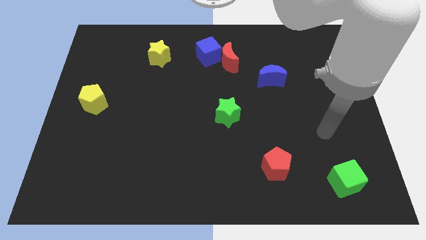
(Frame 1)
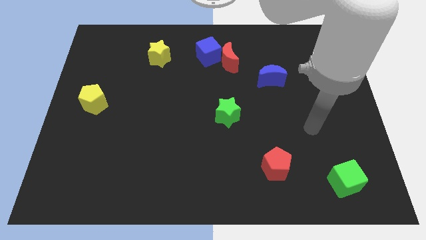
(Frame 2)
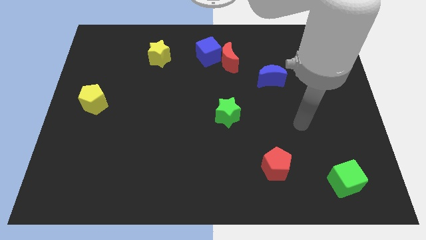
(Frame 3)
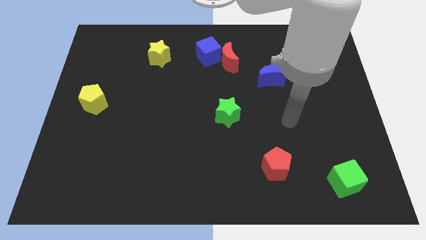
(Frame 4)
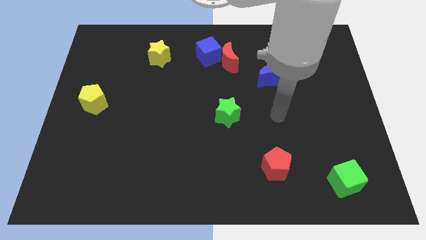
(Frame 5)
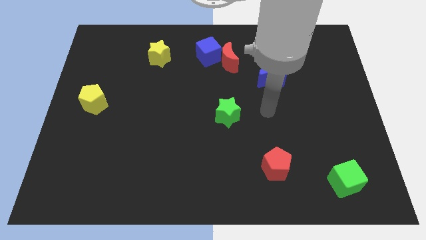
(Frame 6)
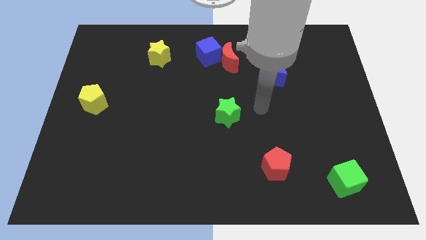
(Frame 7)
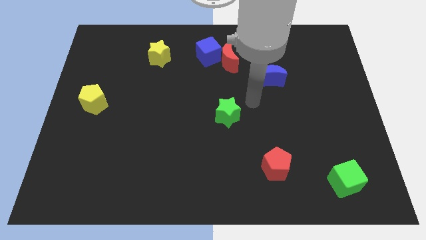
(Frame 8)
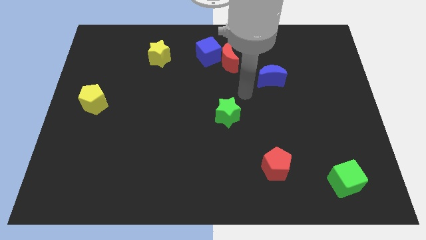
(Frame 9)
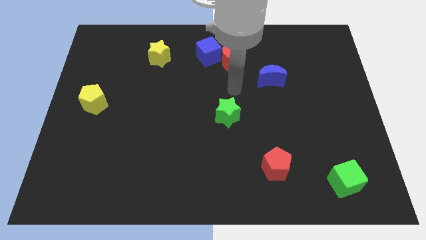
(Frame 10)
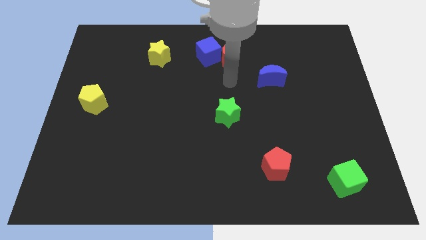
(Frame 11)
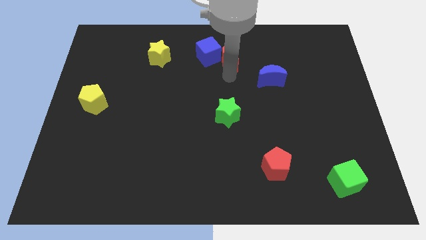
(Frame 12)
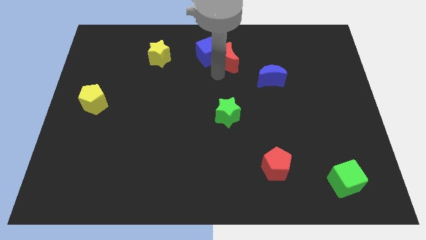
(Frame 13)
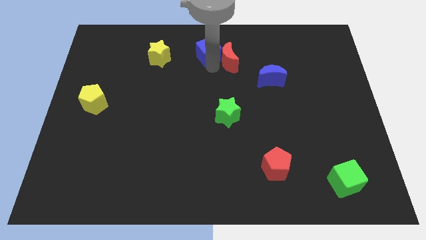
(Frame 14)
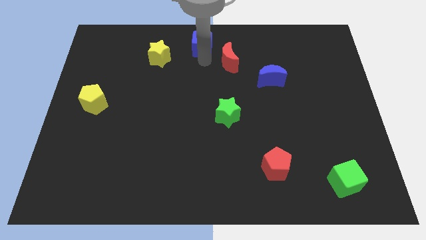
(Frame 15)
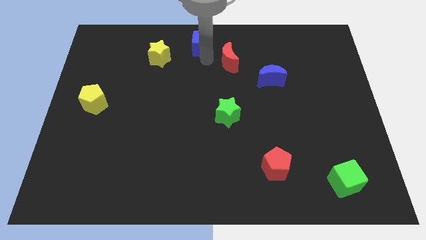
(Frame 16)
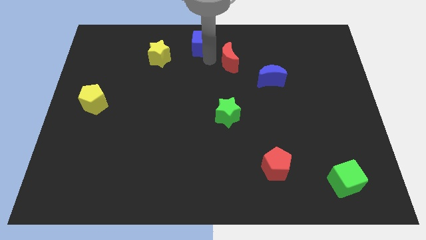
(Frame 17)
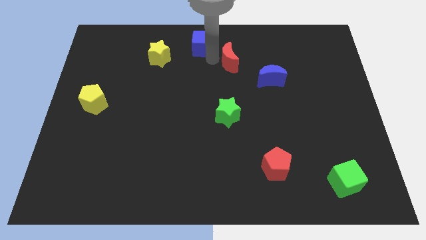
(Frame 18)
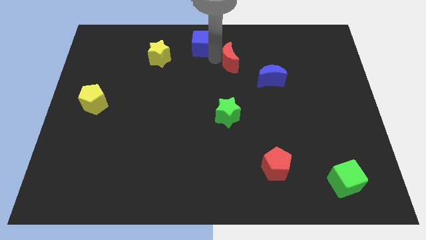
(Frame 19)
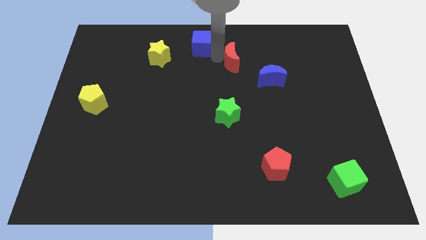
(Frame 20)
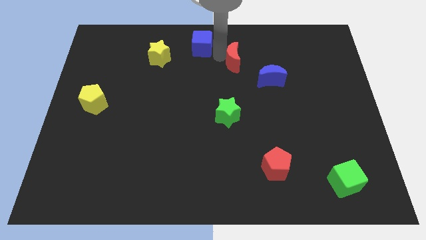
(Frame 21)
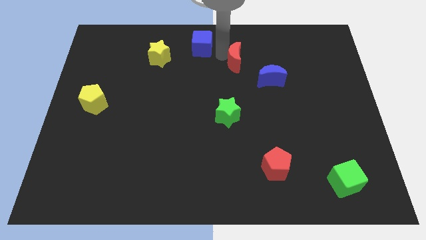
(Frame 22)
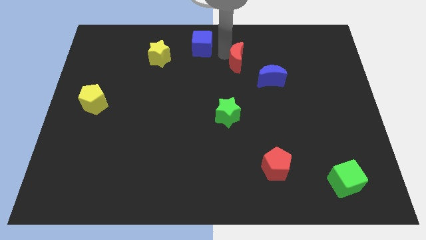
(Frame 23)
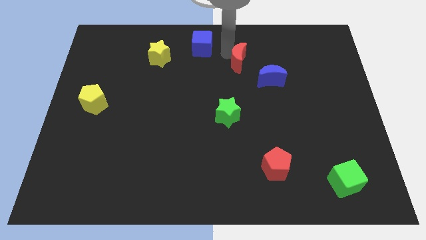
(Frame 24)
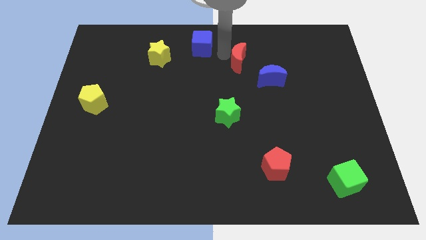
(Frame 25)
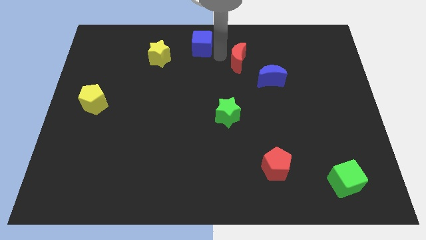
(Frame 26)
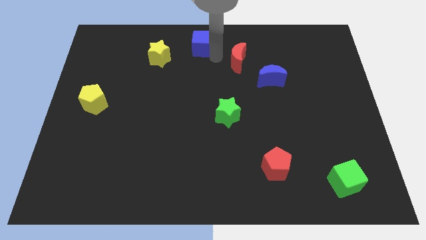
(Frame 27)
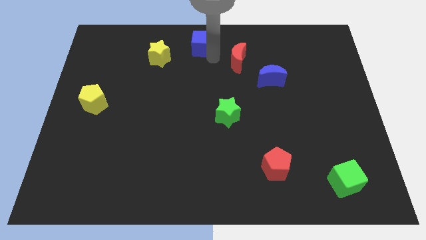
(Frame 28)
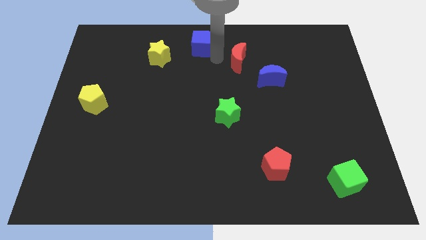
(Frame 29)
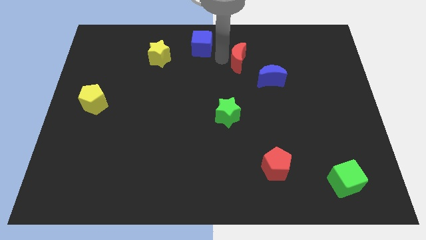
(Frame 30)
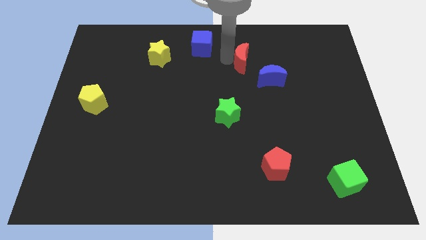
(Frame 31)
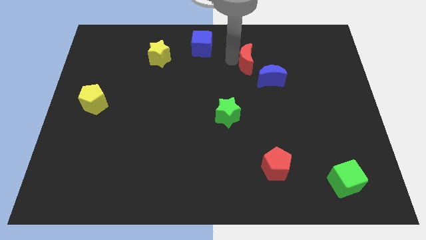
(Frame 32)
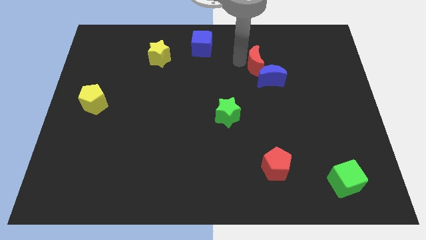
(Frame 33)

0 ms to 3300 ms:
slightly move the red moon to the right

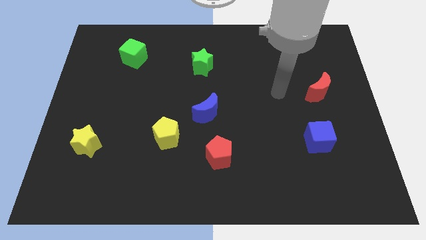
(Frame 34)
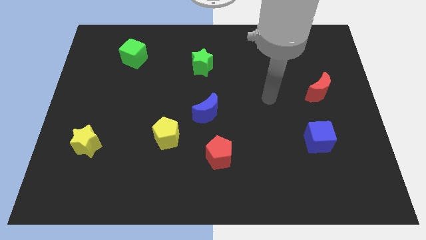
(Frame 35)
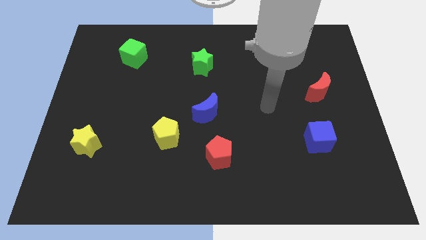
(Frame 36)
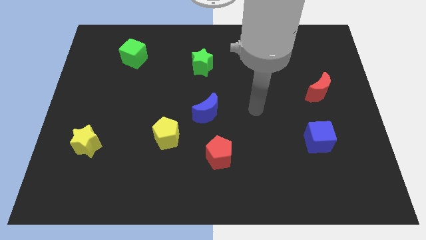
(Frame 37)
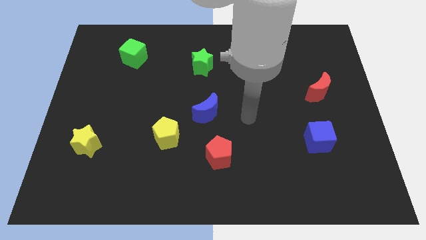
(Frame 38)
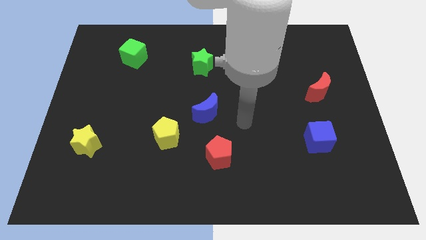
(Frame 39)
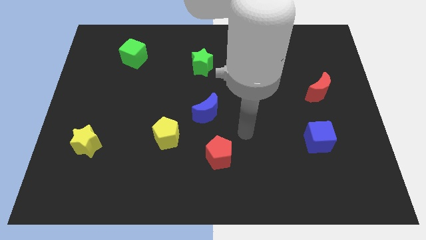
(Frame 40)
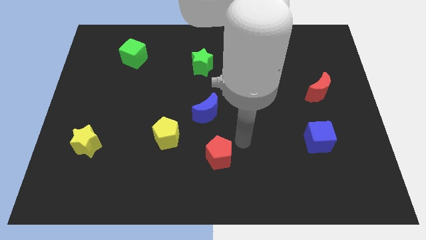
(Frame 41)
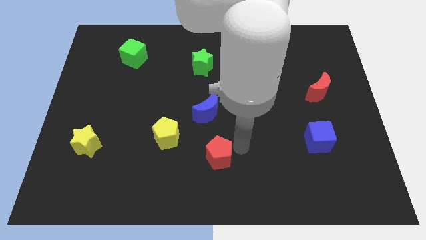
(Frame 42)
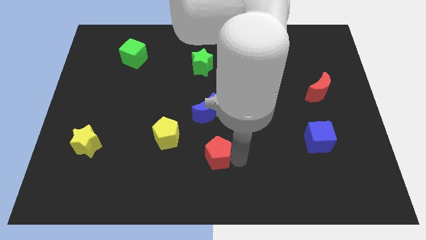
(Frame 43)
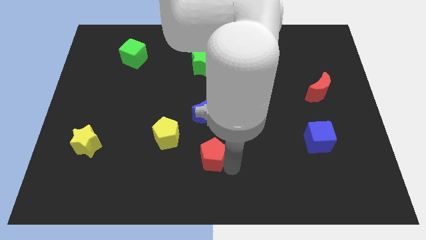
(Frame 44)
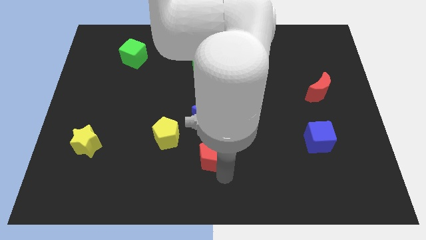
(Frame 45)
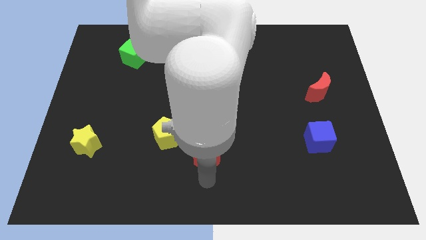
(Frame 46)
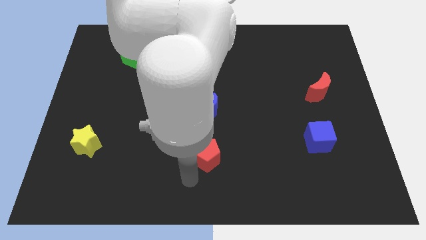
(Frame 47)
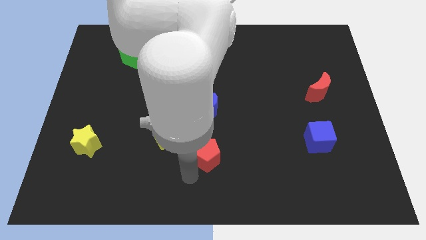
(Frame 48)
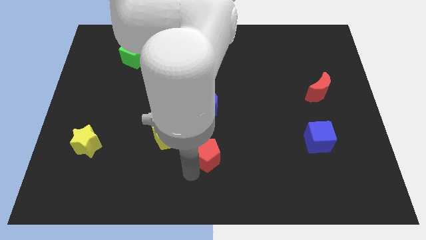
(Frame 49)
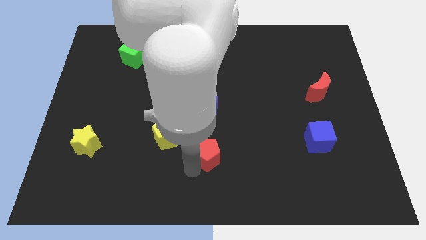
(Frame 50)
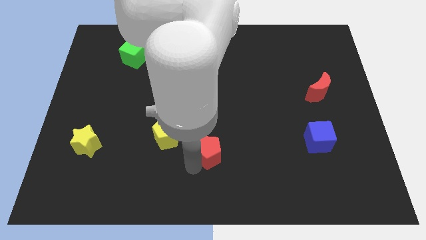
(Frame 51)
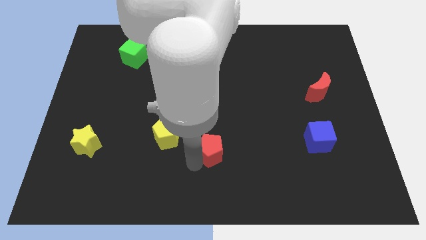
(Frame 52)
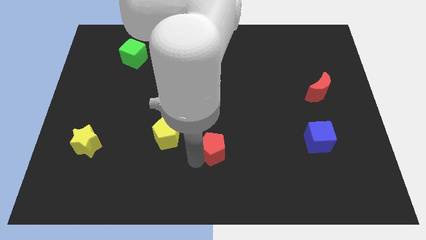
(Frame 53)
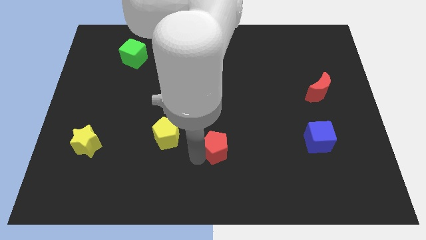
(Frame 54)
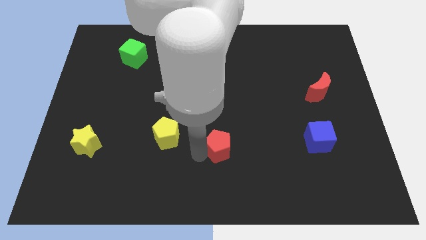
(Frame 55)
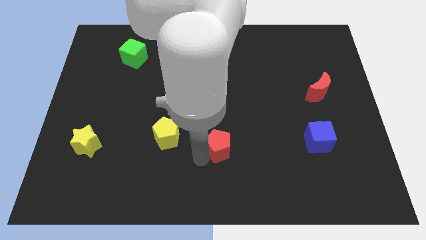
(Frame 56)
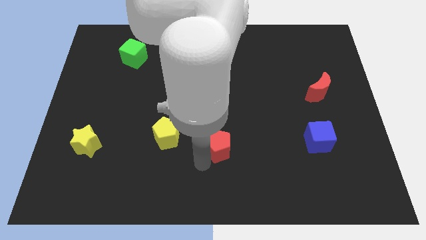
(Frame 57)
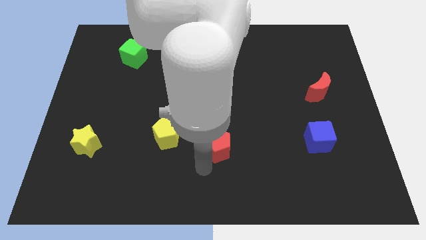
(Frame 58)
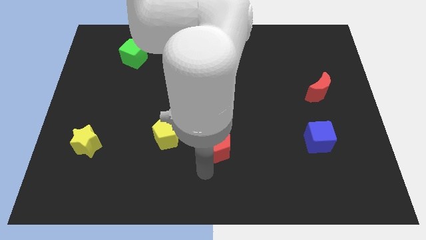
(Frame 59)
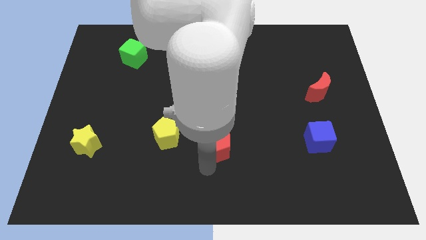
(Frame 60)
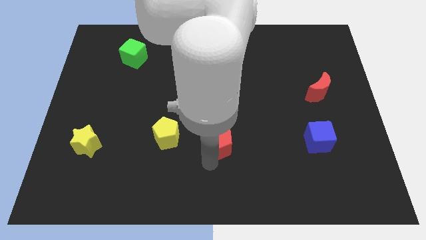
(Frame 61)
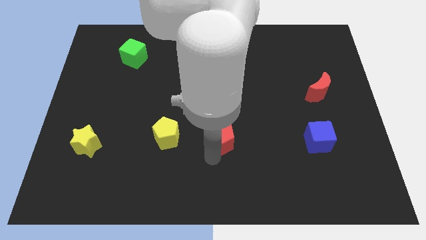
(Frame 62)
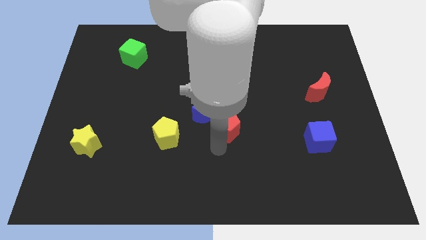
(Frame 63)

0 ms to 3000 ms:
slide the red pentagon upwards slightly

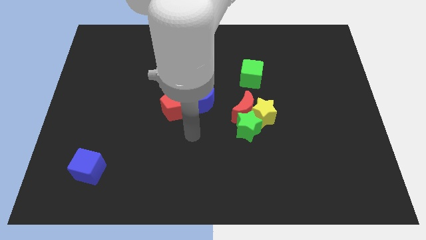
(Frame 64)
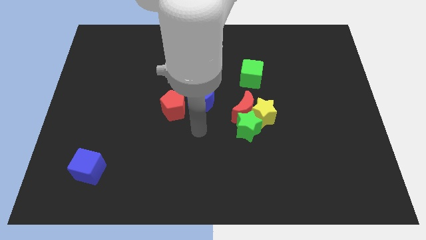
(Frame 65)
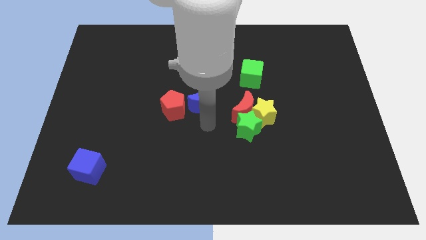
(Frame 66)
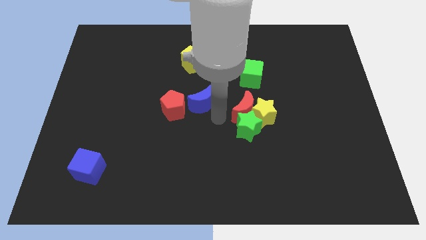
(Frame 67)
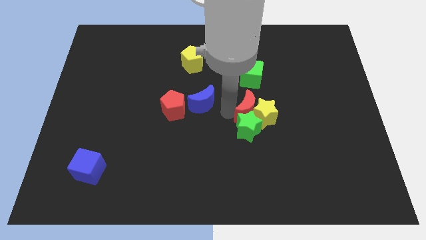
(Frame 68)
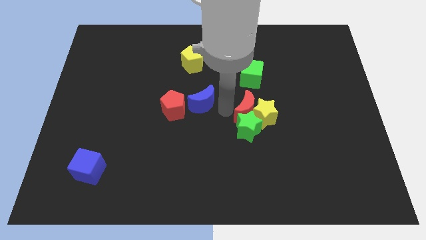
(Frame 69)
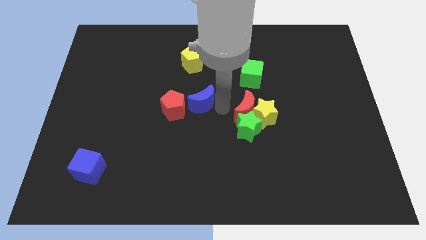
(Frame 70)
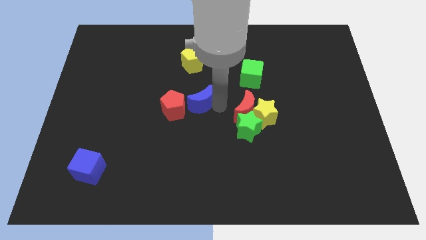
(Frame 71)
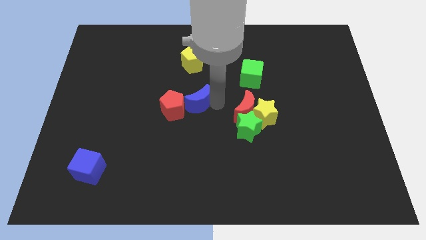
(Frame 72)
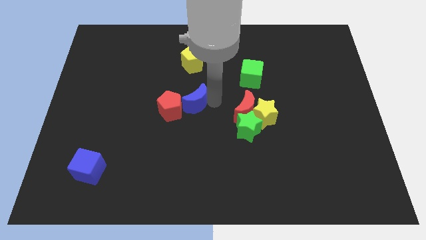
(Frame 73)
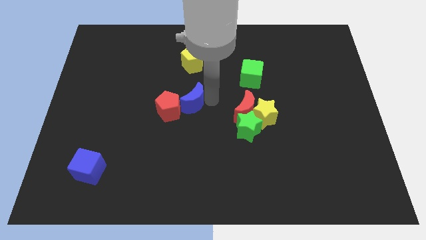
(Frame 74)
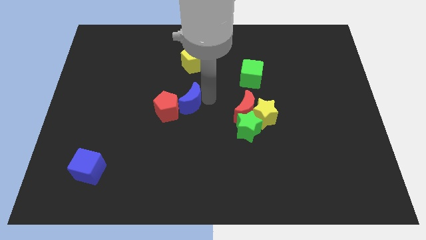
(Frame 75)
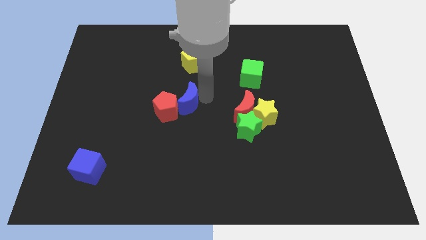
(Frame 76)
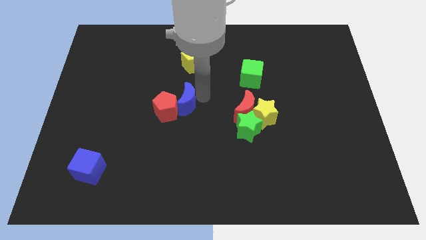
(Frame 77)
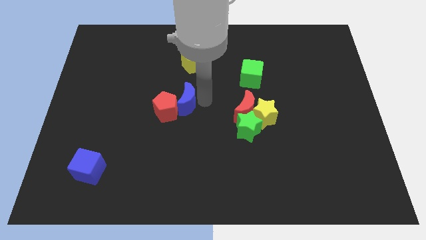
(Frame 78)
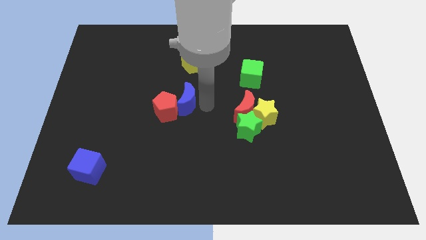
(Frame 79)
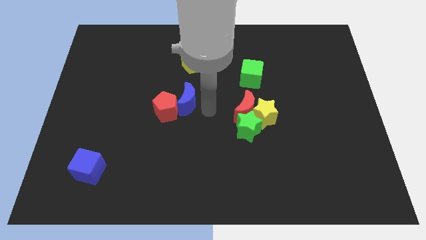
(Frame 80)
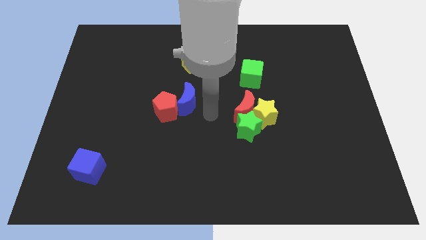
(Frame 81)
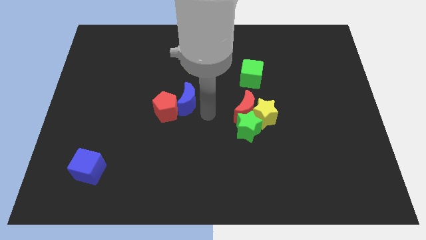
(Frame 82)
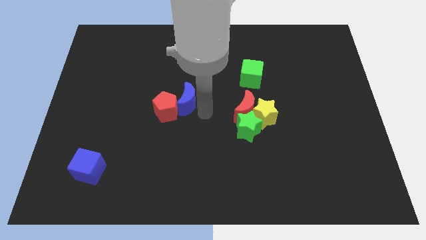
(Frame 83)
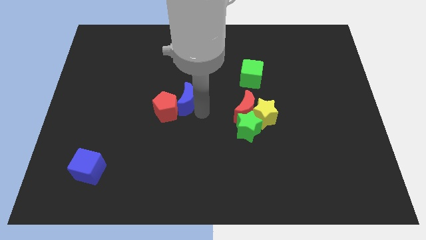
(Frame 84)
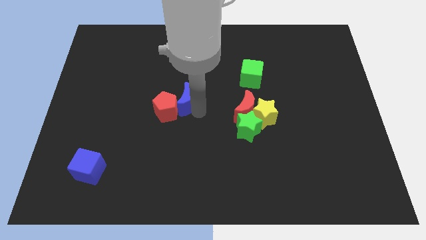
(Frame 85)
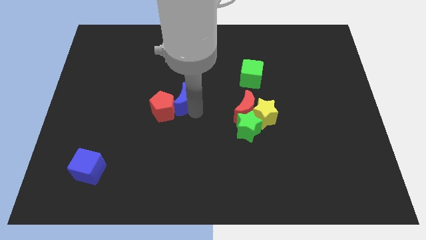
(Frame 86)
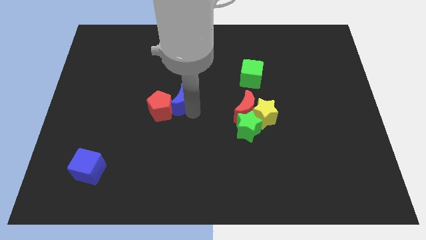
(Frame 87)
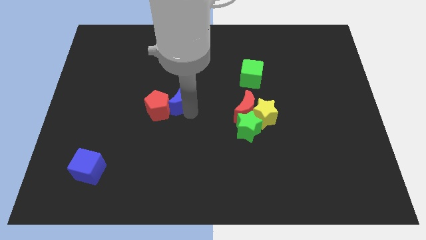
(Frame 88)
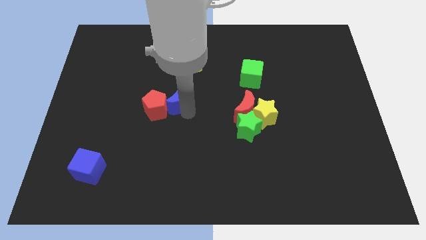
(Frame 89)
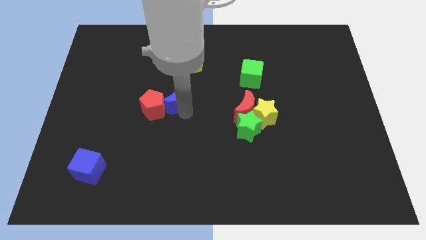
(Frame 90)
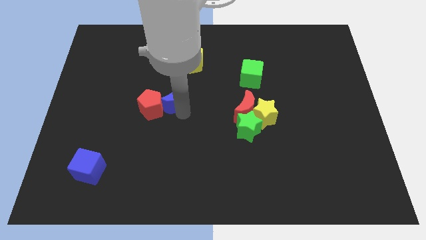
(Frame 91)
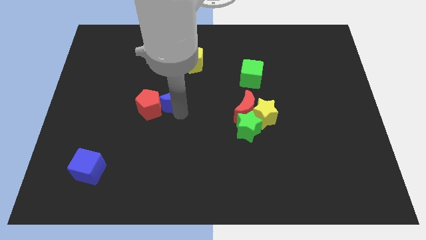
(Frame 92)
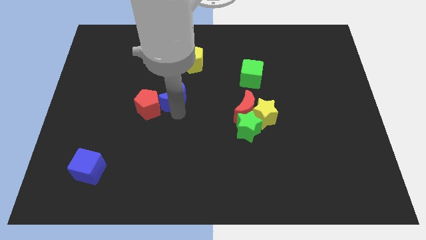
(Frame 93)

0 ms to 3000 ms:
slide the blue moon slightly to the left
